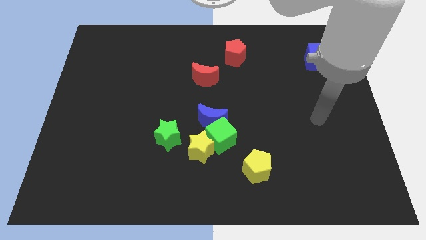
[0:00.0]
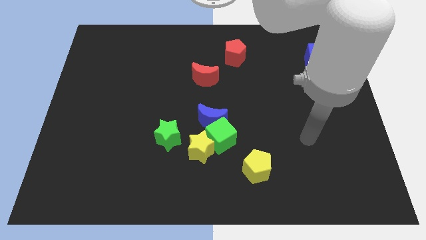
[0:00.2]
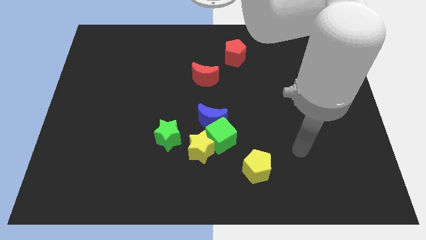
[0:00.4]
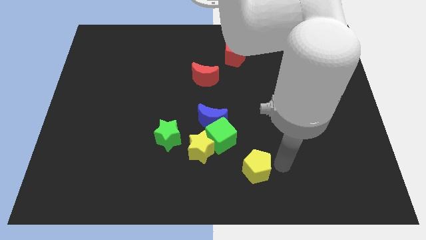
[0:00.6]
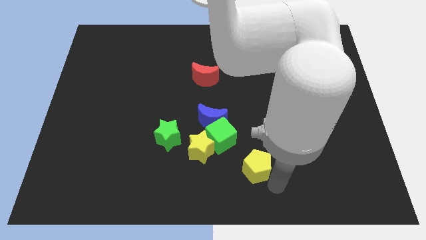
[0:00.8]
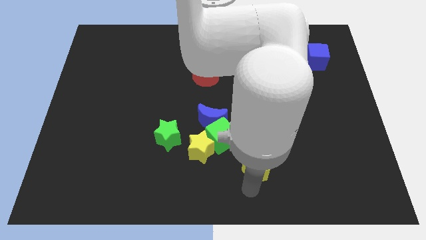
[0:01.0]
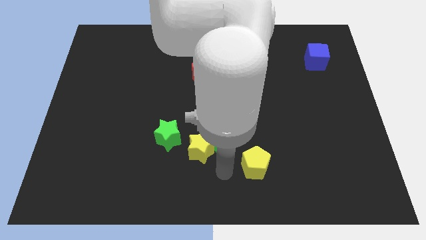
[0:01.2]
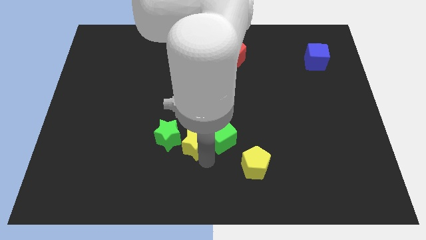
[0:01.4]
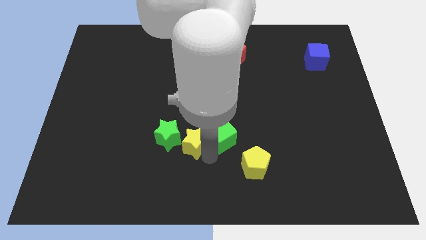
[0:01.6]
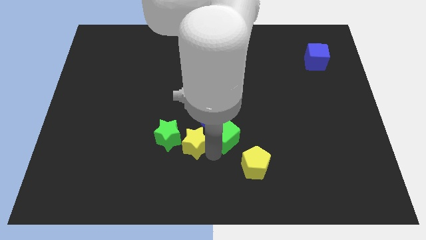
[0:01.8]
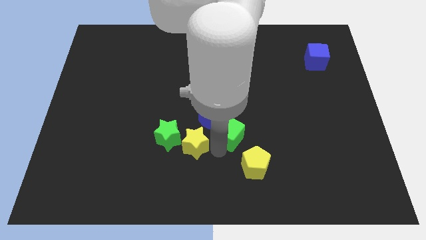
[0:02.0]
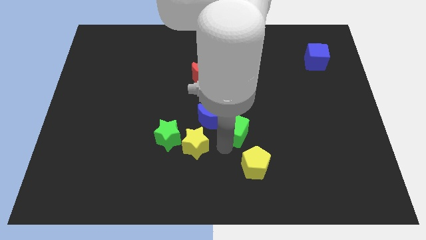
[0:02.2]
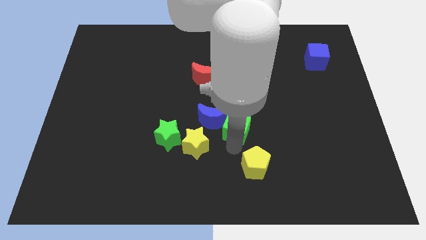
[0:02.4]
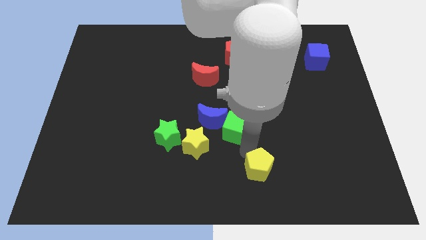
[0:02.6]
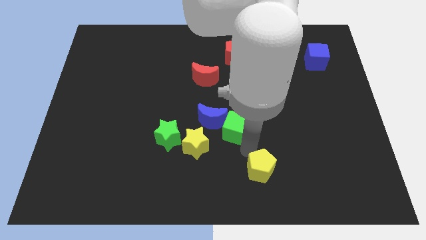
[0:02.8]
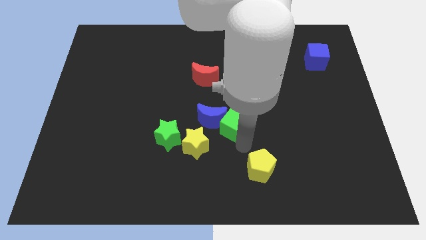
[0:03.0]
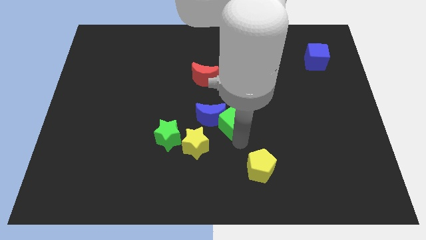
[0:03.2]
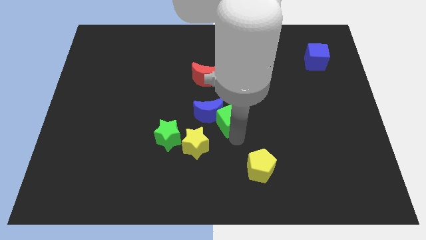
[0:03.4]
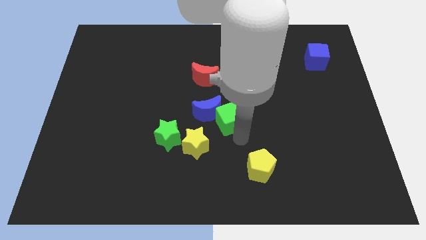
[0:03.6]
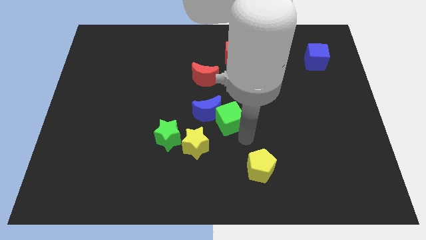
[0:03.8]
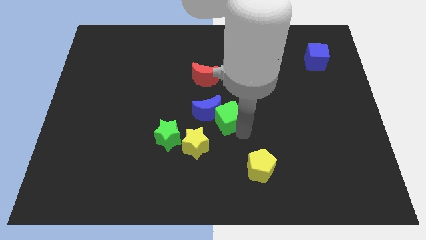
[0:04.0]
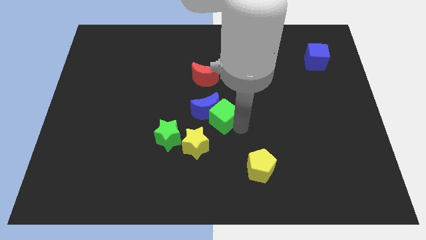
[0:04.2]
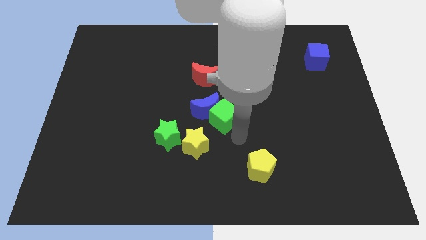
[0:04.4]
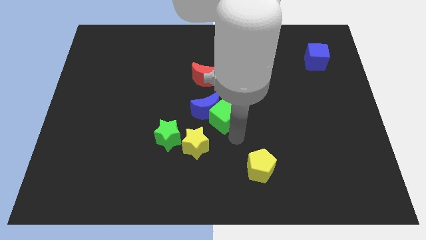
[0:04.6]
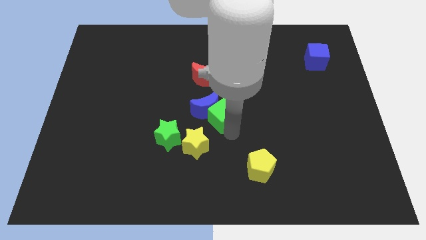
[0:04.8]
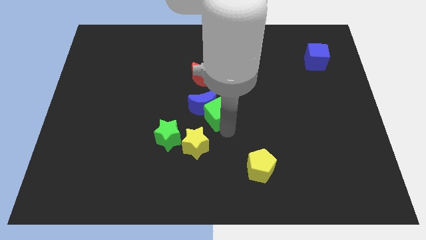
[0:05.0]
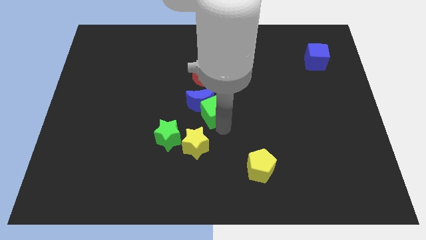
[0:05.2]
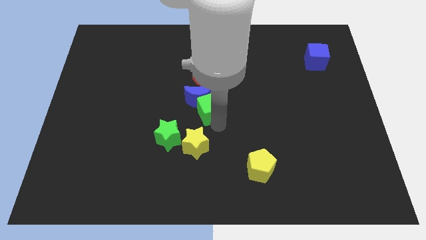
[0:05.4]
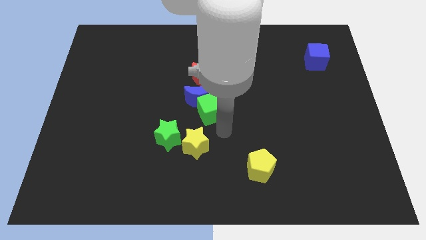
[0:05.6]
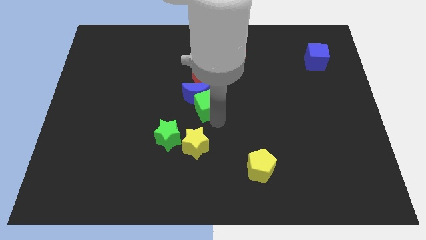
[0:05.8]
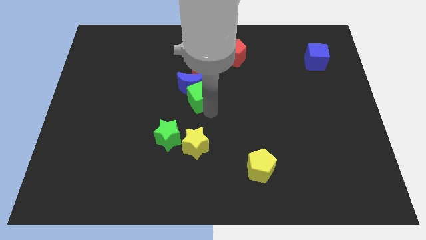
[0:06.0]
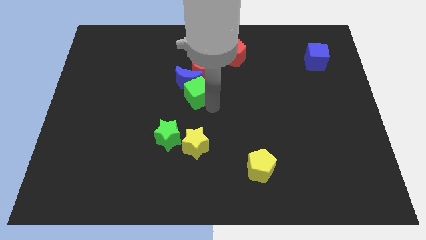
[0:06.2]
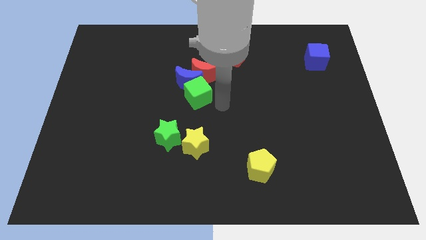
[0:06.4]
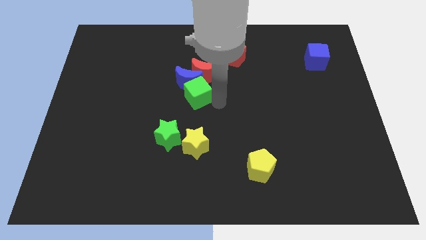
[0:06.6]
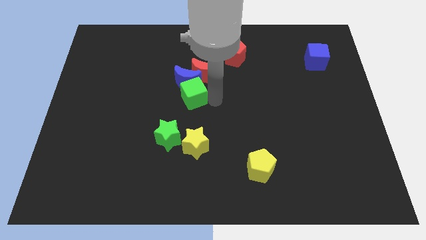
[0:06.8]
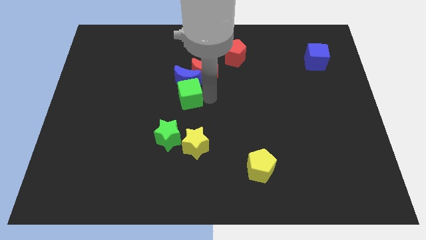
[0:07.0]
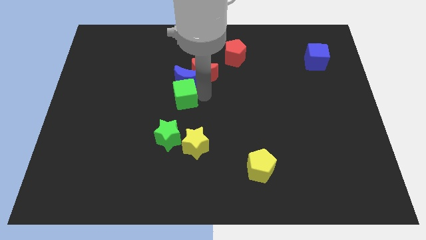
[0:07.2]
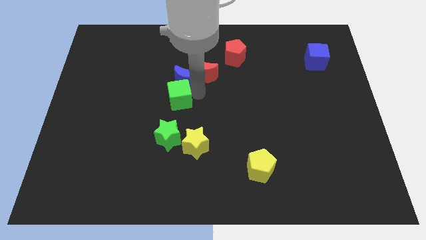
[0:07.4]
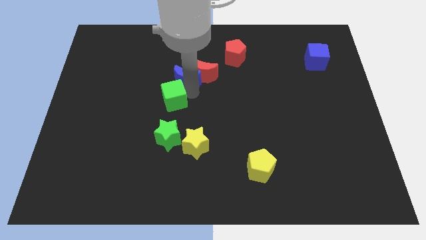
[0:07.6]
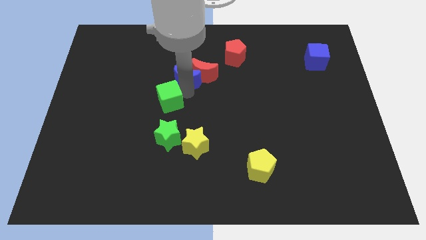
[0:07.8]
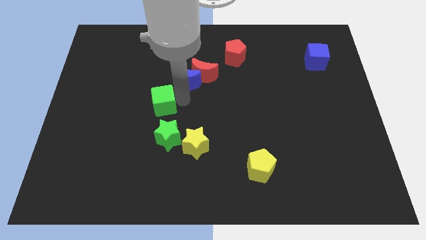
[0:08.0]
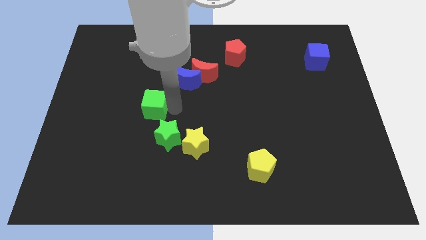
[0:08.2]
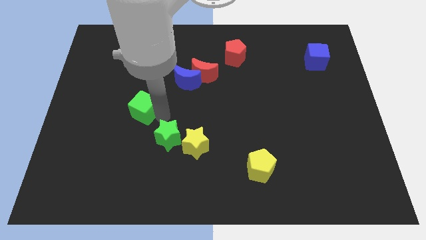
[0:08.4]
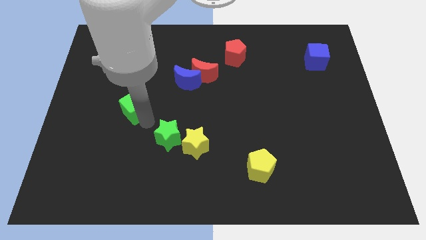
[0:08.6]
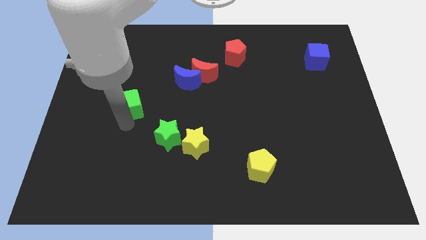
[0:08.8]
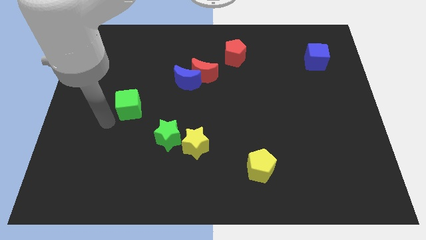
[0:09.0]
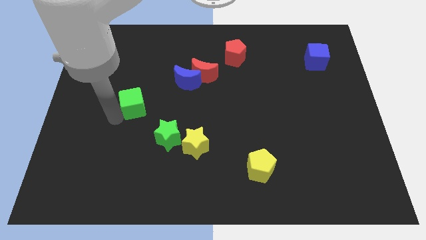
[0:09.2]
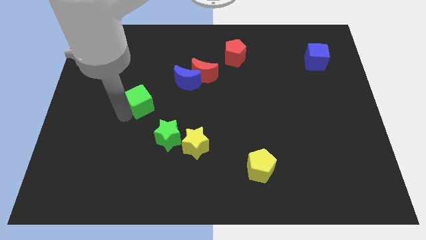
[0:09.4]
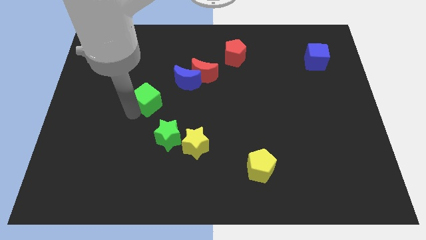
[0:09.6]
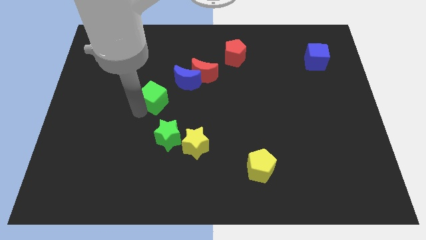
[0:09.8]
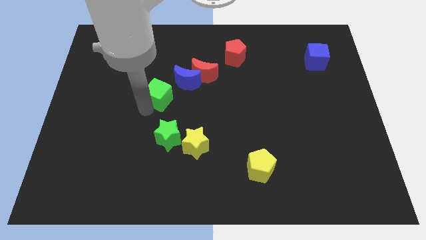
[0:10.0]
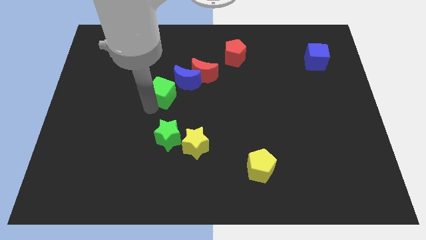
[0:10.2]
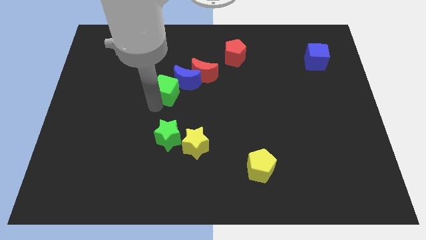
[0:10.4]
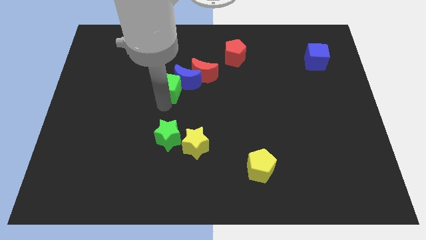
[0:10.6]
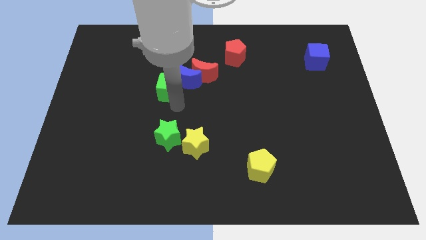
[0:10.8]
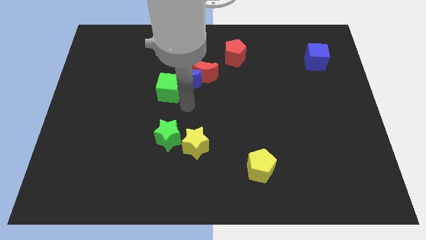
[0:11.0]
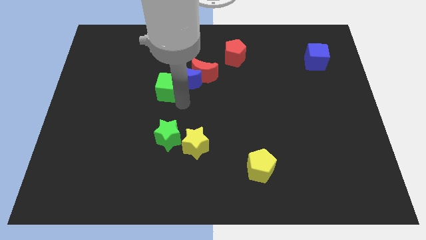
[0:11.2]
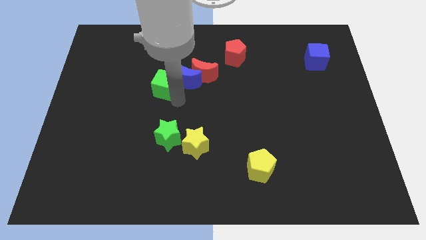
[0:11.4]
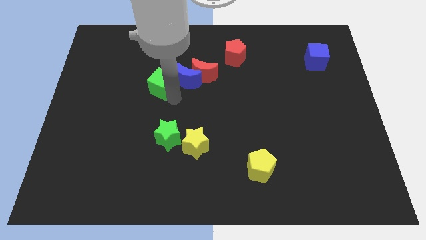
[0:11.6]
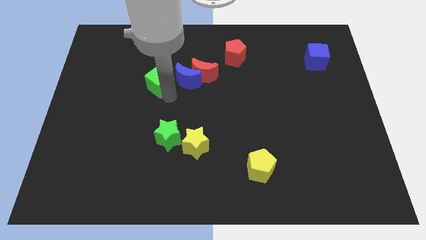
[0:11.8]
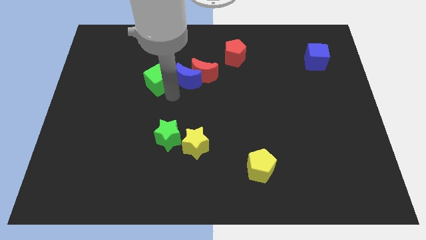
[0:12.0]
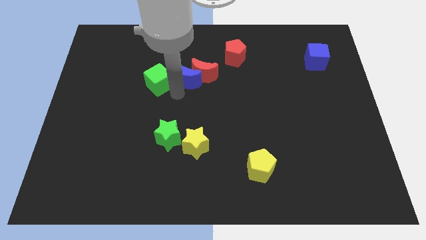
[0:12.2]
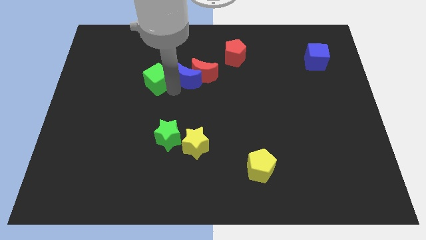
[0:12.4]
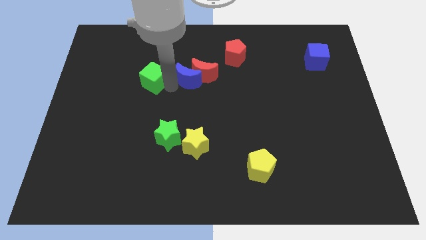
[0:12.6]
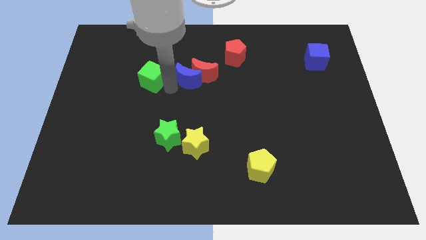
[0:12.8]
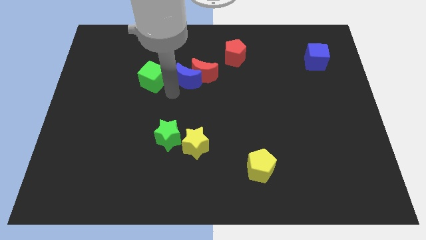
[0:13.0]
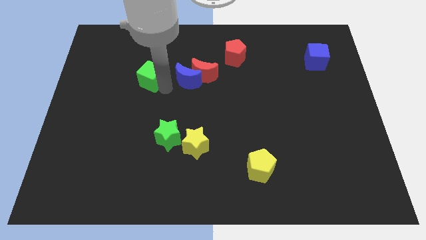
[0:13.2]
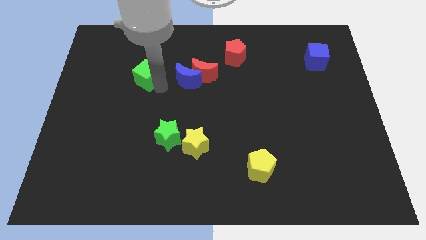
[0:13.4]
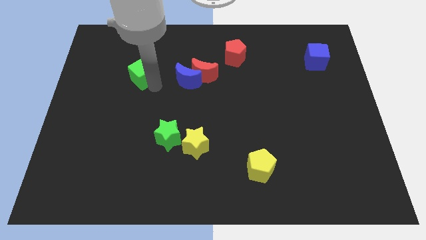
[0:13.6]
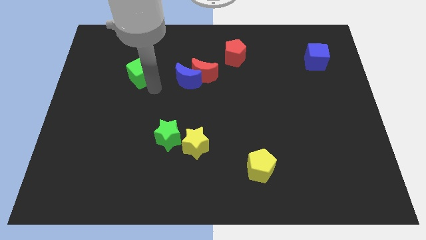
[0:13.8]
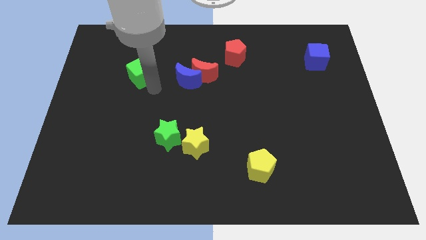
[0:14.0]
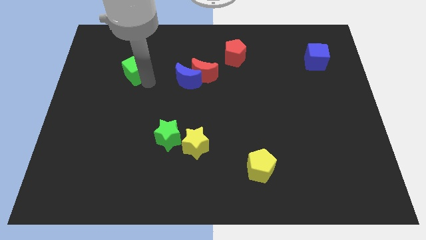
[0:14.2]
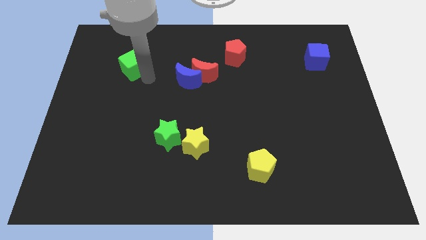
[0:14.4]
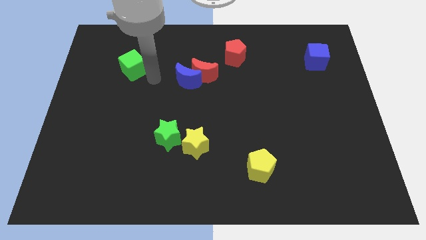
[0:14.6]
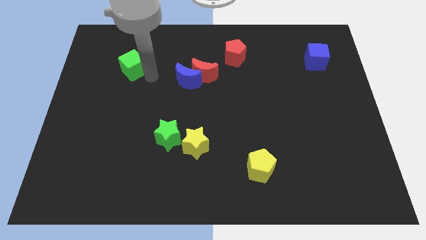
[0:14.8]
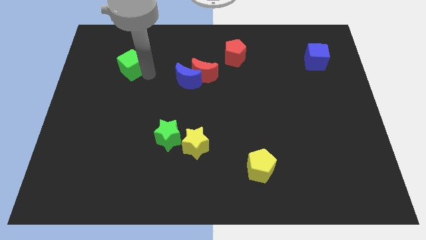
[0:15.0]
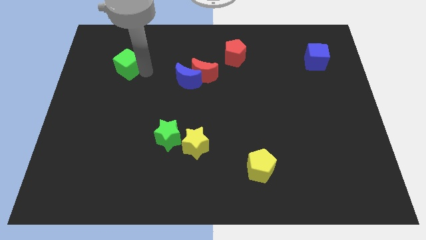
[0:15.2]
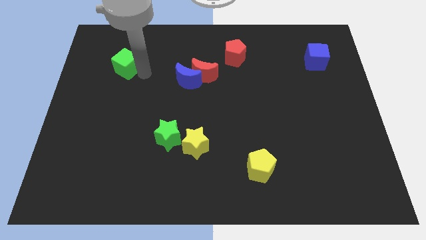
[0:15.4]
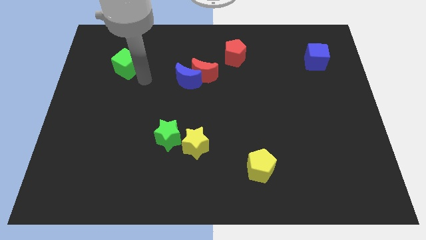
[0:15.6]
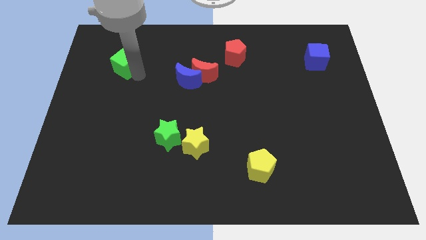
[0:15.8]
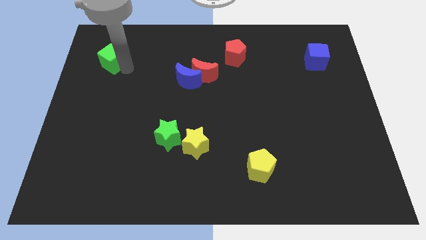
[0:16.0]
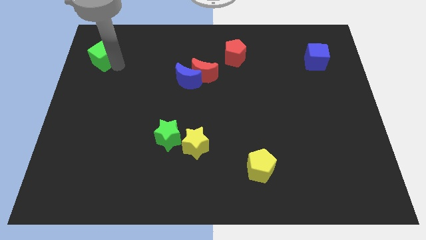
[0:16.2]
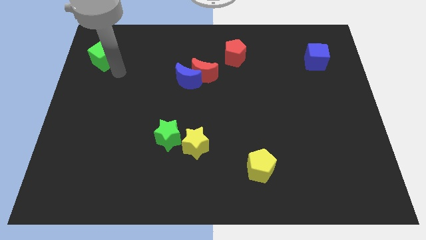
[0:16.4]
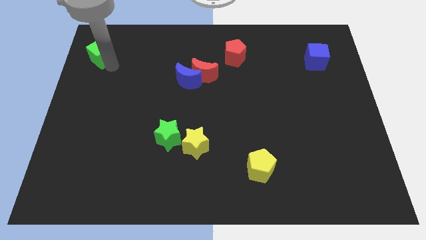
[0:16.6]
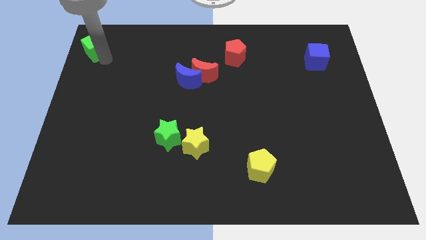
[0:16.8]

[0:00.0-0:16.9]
push the green cube to the top left corner
